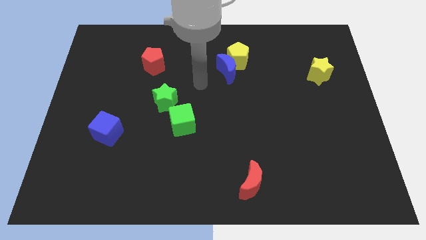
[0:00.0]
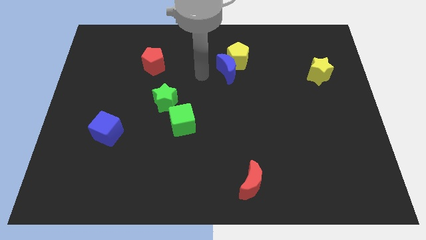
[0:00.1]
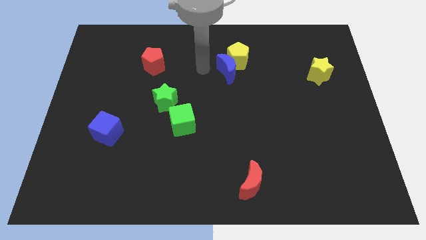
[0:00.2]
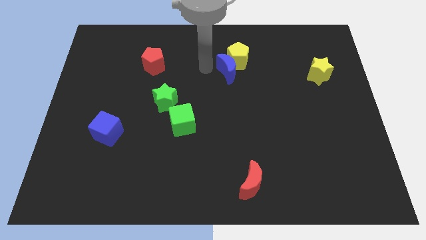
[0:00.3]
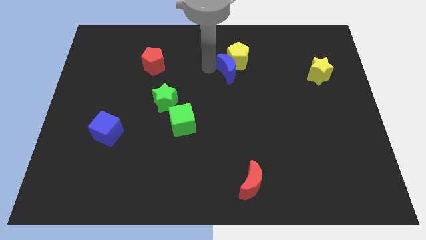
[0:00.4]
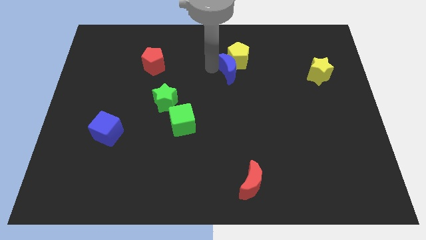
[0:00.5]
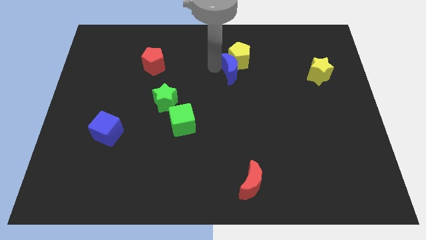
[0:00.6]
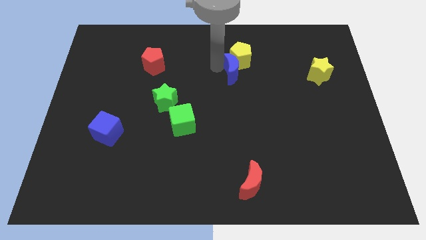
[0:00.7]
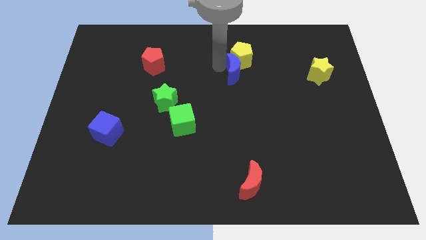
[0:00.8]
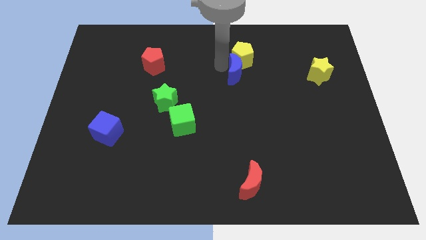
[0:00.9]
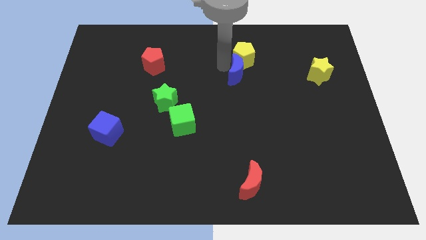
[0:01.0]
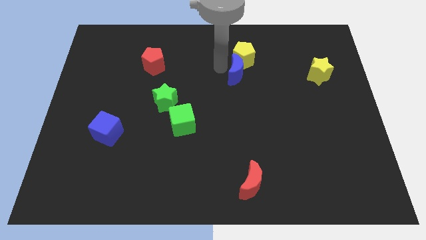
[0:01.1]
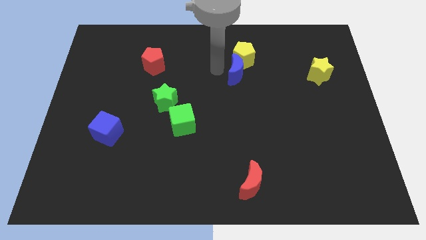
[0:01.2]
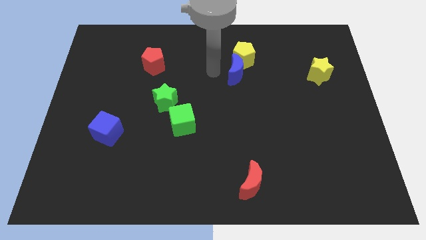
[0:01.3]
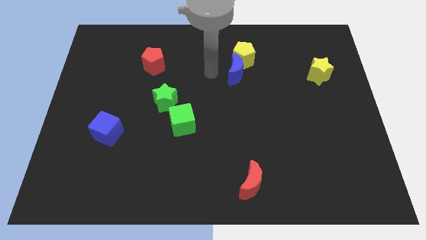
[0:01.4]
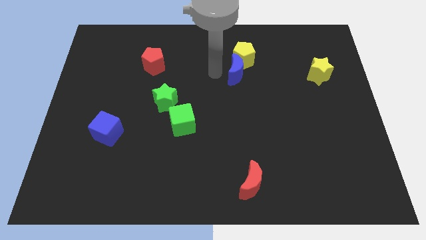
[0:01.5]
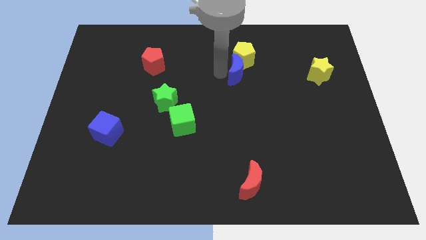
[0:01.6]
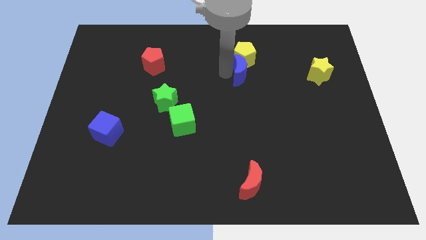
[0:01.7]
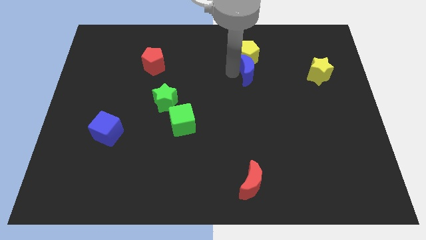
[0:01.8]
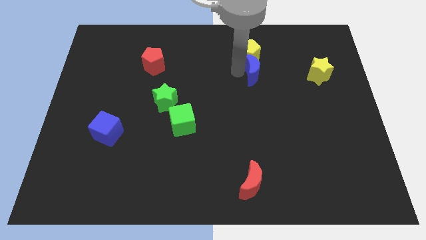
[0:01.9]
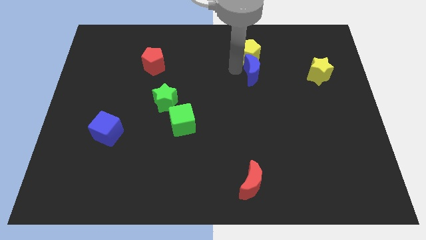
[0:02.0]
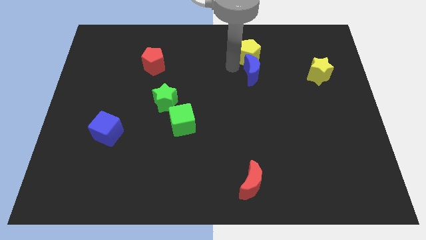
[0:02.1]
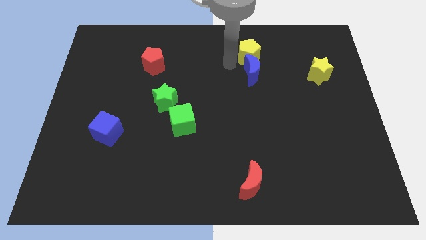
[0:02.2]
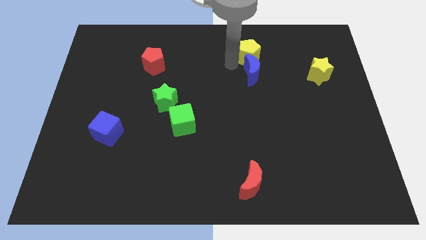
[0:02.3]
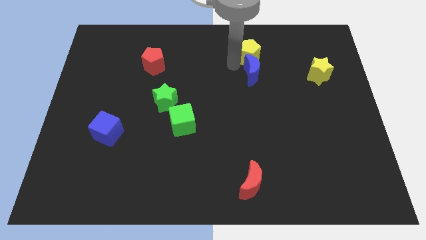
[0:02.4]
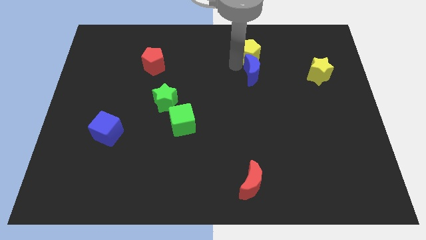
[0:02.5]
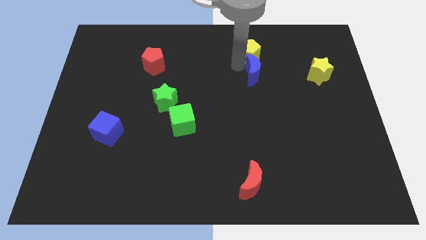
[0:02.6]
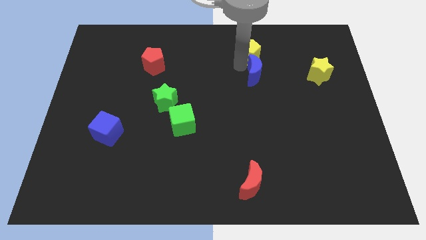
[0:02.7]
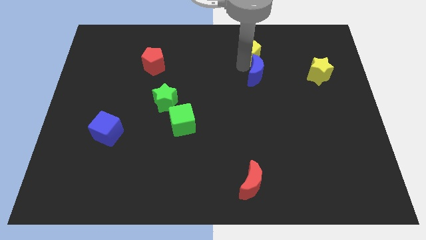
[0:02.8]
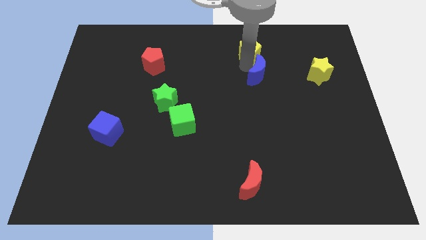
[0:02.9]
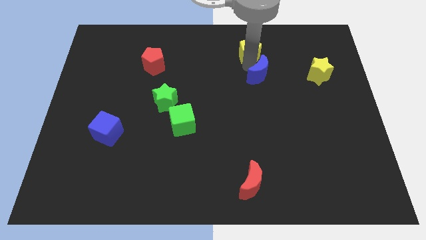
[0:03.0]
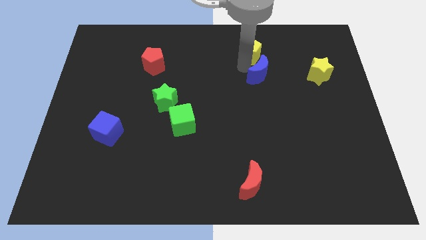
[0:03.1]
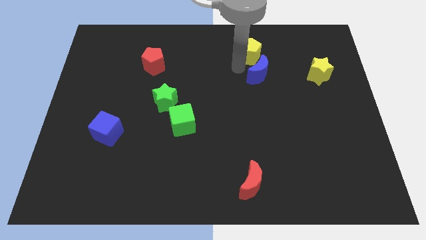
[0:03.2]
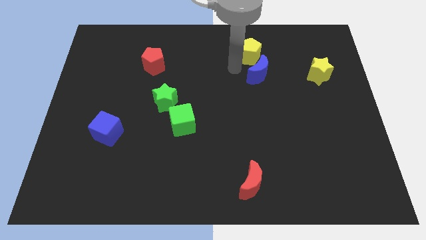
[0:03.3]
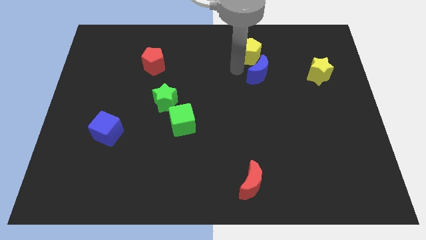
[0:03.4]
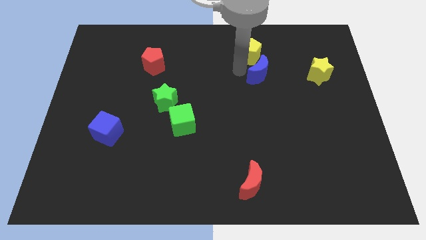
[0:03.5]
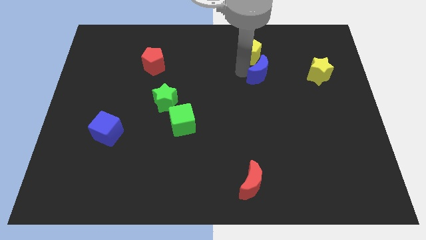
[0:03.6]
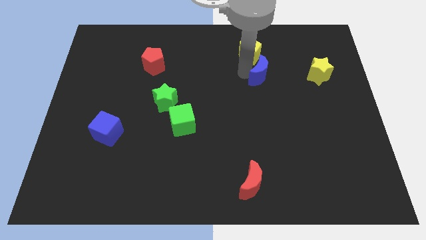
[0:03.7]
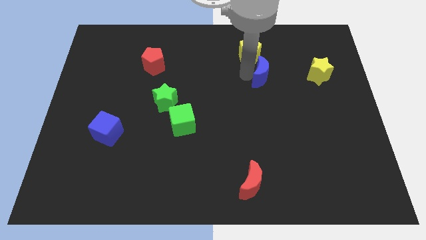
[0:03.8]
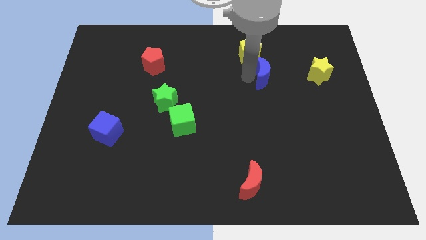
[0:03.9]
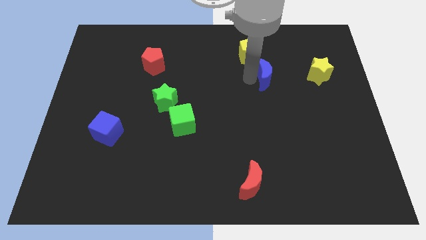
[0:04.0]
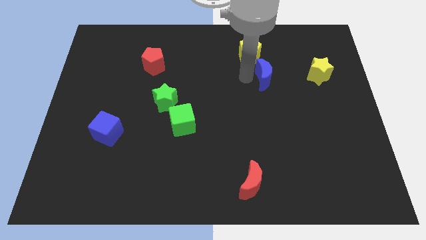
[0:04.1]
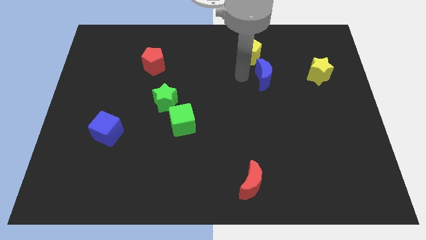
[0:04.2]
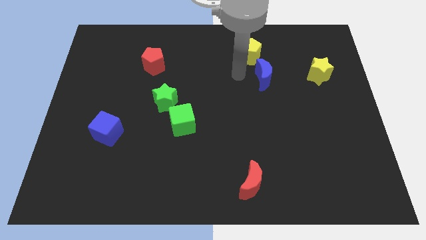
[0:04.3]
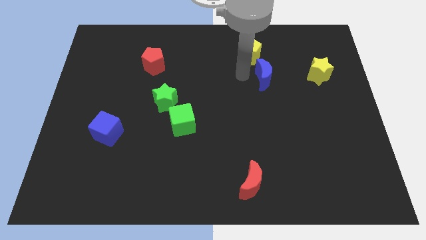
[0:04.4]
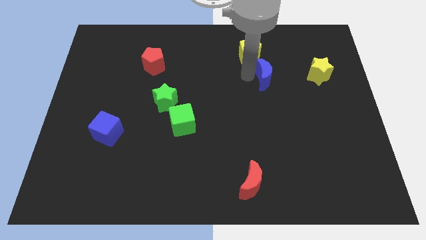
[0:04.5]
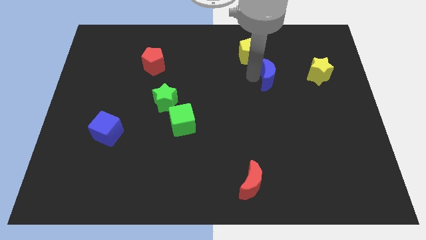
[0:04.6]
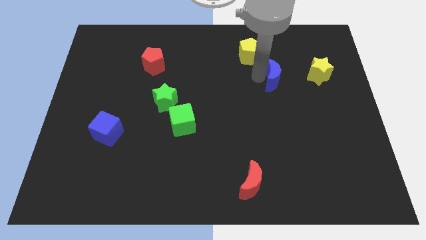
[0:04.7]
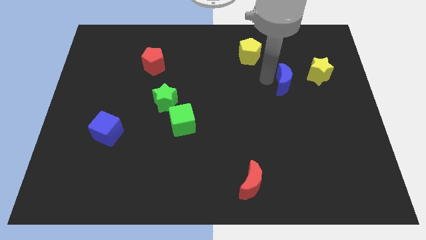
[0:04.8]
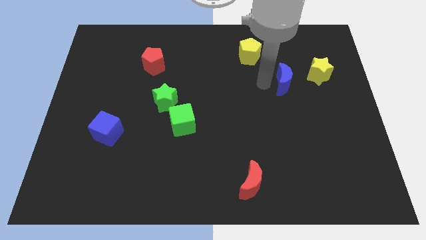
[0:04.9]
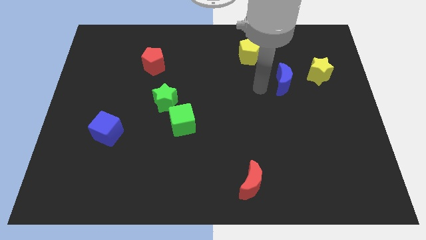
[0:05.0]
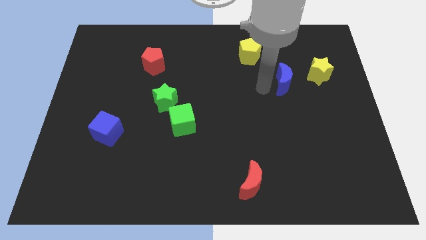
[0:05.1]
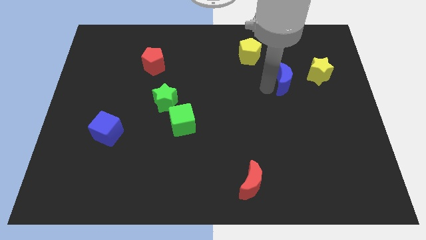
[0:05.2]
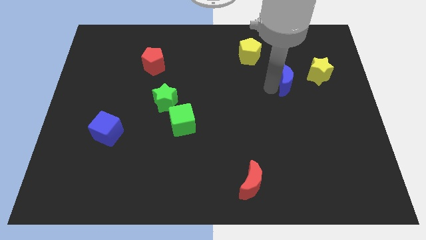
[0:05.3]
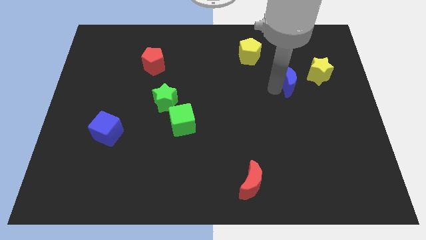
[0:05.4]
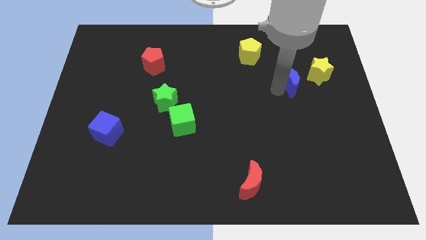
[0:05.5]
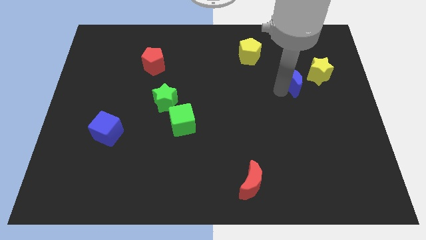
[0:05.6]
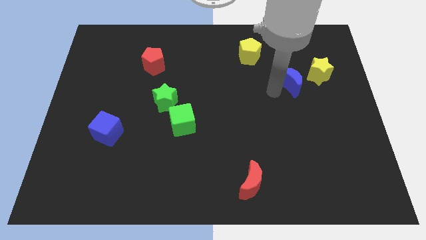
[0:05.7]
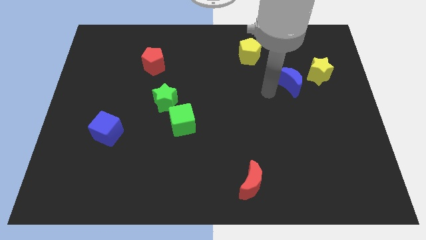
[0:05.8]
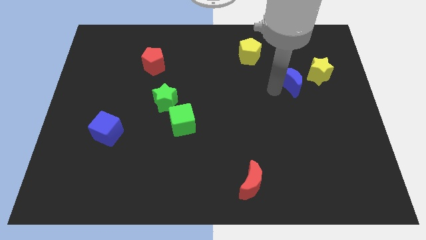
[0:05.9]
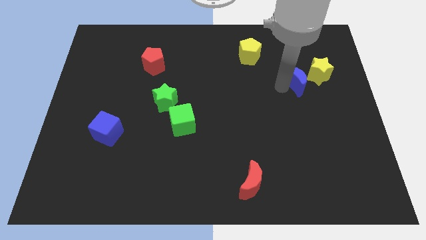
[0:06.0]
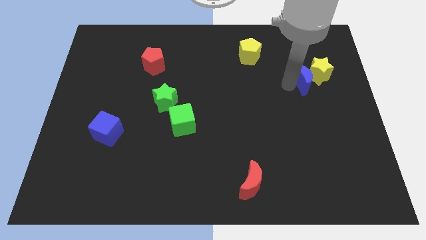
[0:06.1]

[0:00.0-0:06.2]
move the blue moon next to the yellow star

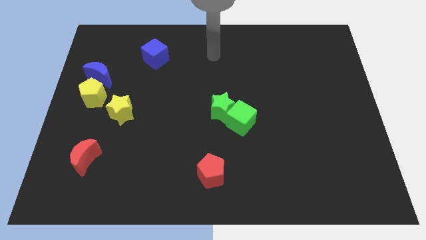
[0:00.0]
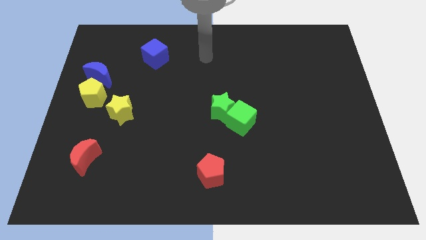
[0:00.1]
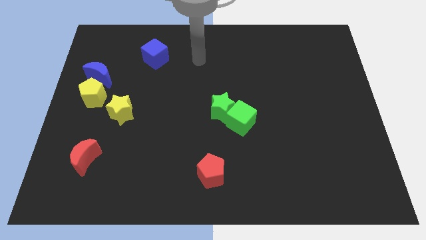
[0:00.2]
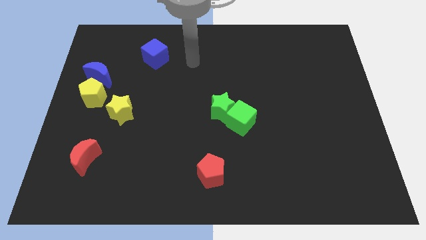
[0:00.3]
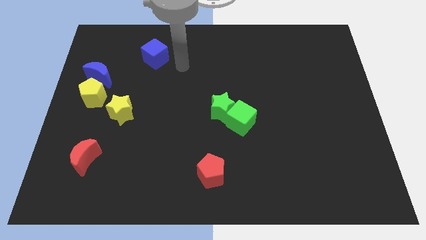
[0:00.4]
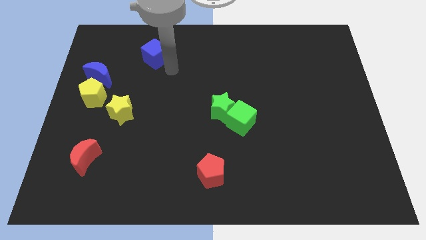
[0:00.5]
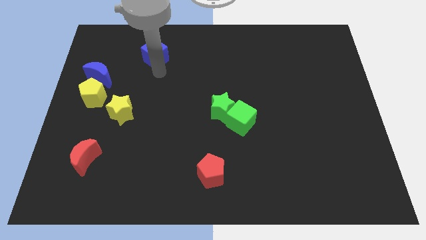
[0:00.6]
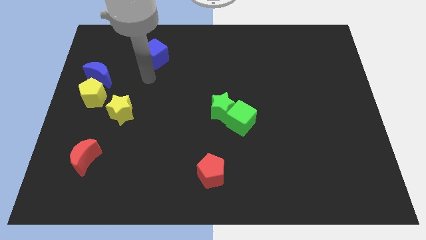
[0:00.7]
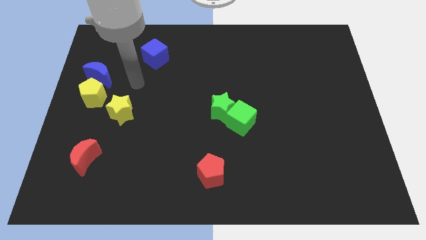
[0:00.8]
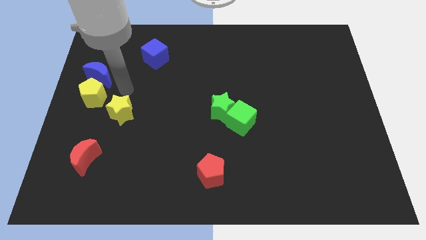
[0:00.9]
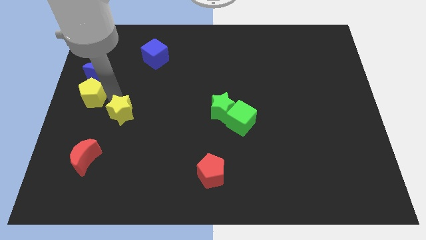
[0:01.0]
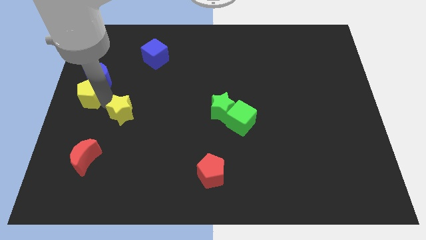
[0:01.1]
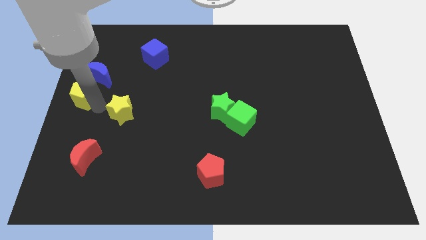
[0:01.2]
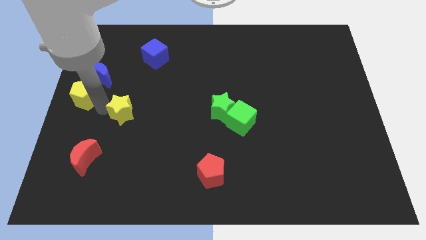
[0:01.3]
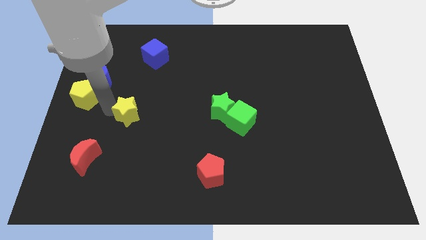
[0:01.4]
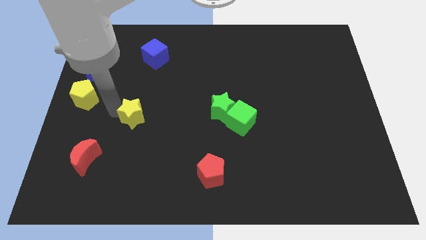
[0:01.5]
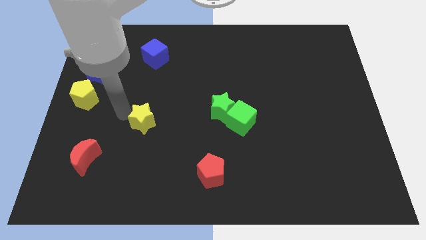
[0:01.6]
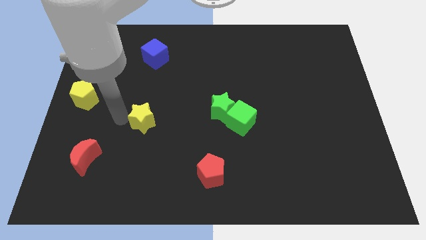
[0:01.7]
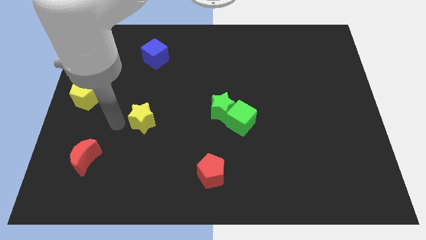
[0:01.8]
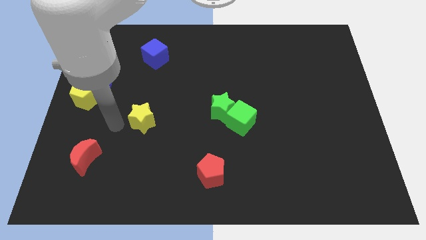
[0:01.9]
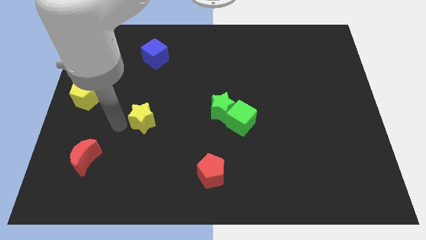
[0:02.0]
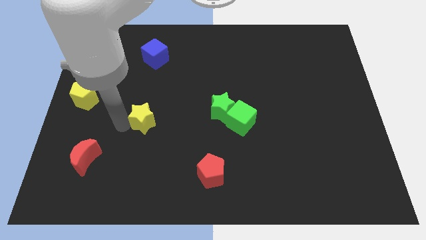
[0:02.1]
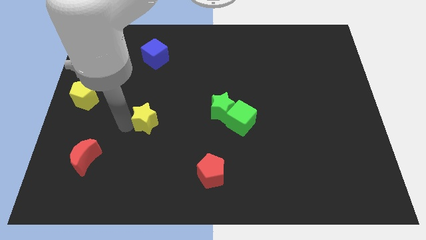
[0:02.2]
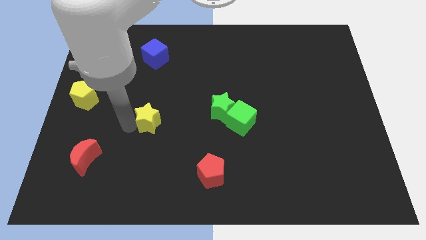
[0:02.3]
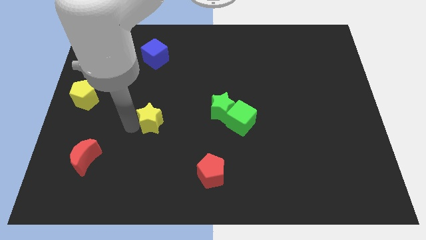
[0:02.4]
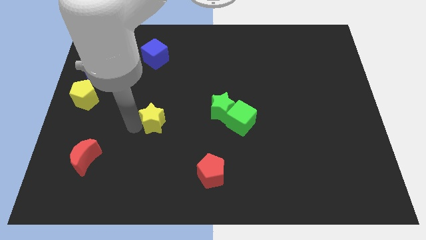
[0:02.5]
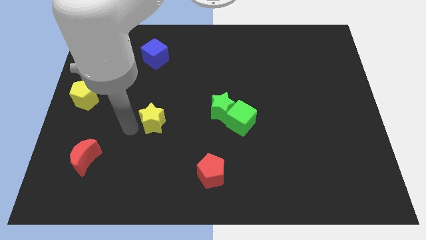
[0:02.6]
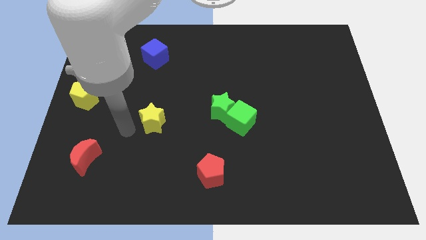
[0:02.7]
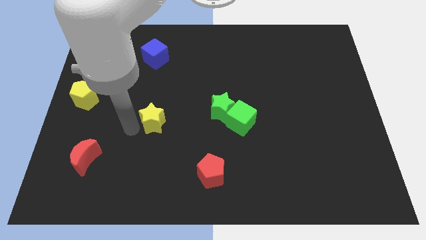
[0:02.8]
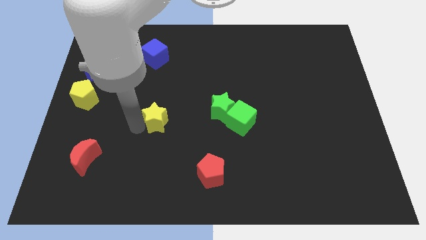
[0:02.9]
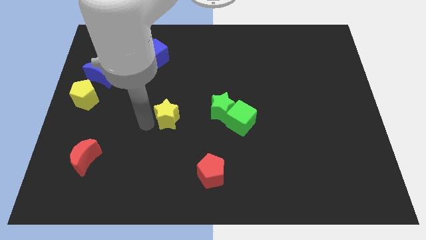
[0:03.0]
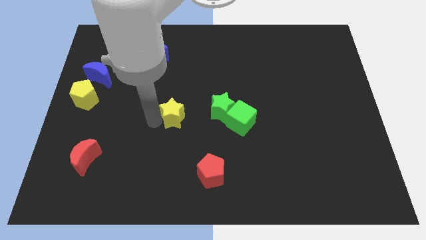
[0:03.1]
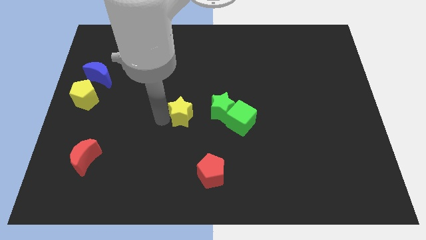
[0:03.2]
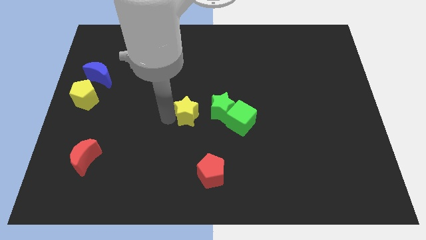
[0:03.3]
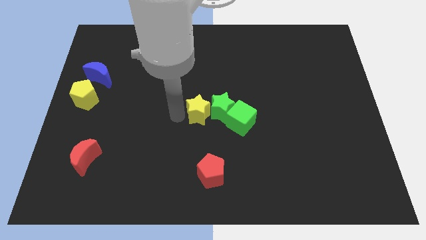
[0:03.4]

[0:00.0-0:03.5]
push the yellow star next to the green star
